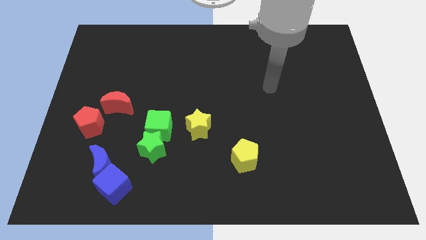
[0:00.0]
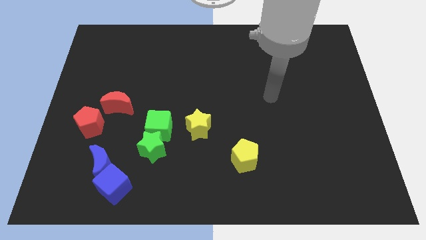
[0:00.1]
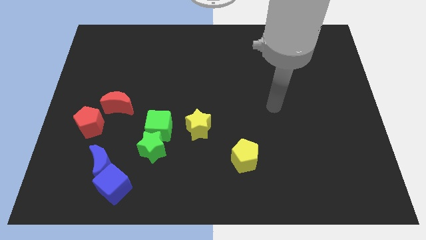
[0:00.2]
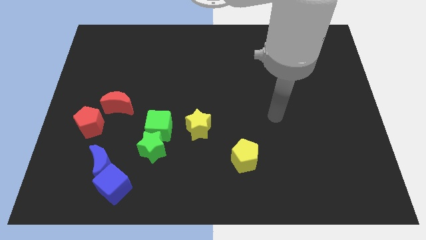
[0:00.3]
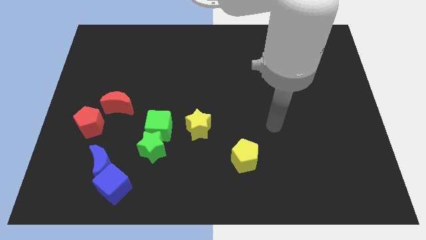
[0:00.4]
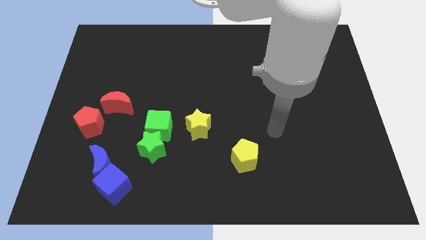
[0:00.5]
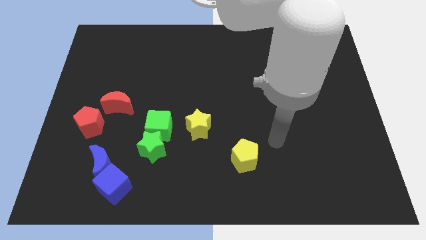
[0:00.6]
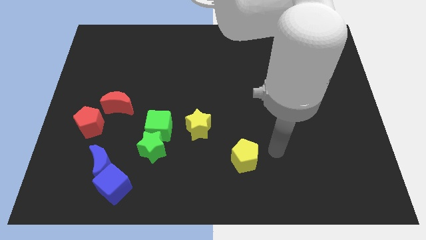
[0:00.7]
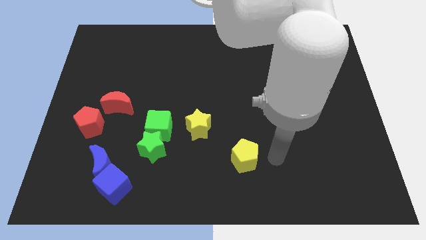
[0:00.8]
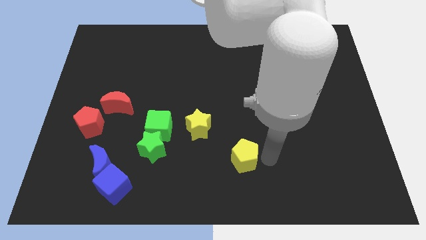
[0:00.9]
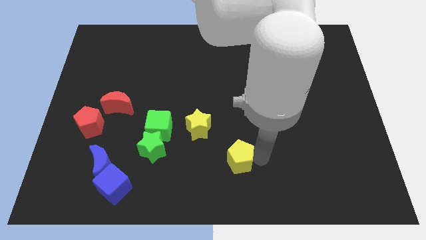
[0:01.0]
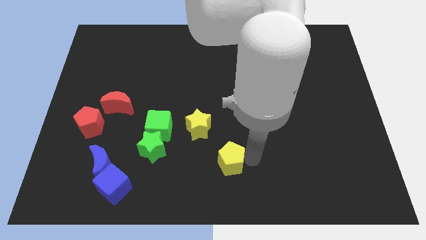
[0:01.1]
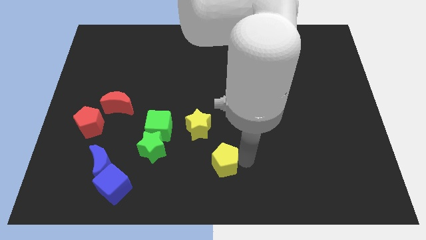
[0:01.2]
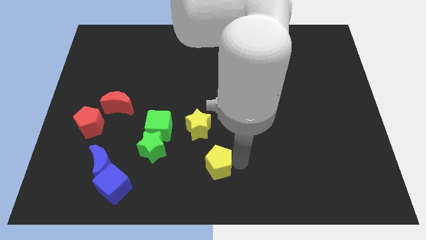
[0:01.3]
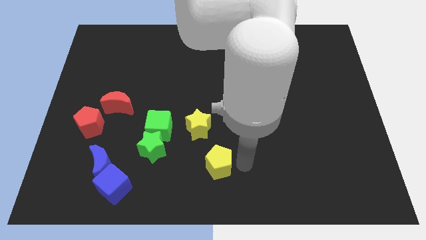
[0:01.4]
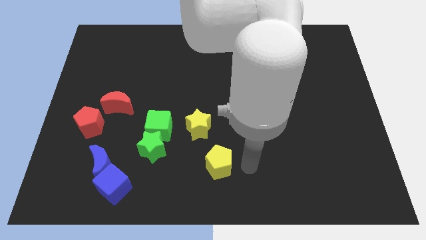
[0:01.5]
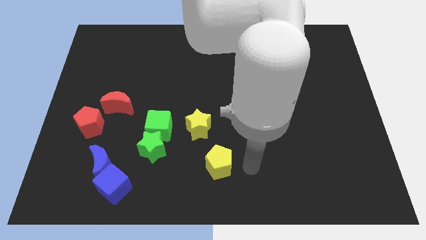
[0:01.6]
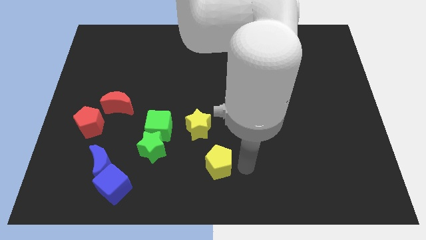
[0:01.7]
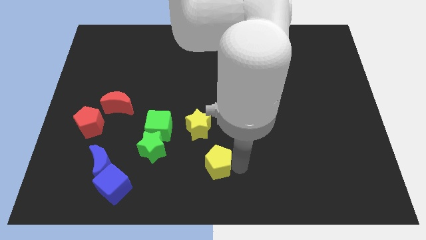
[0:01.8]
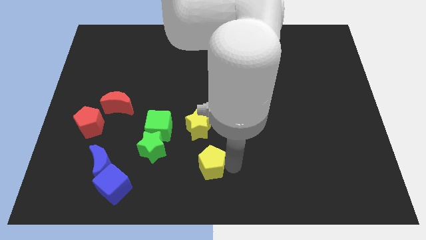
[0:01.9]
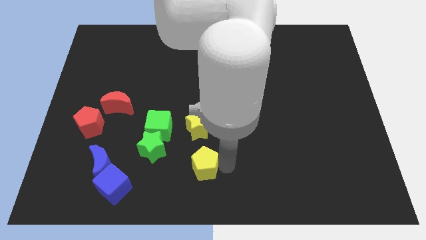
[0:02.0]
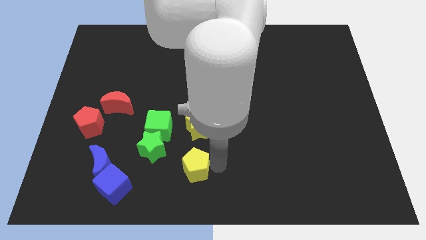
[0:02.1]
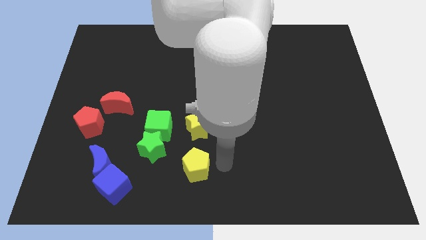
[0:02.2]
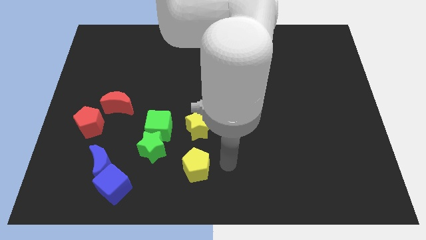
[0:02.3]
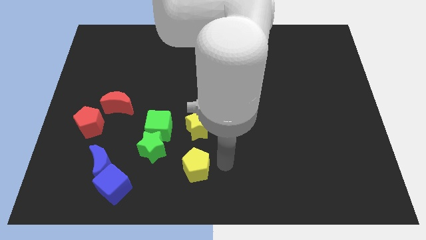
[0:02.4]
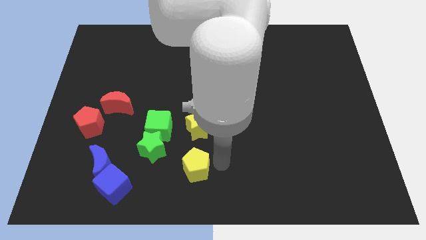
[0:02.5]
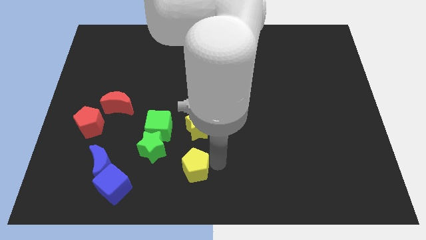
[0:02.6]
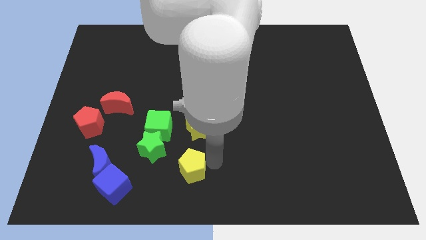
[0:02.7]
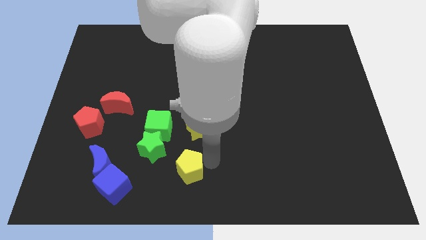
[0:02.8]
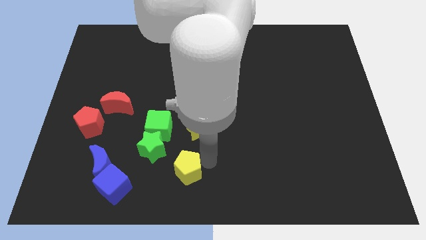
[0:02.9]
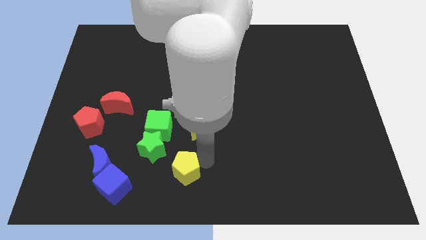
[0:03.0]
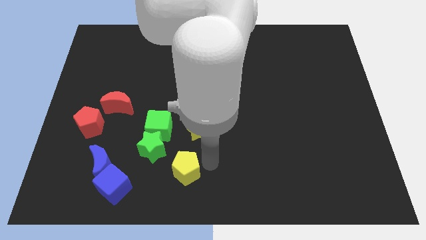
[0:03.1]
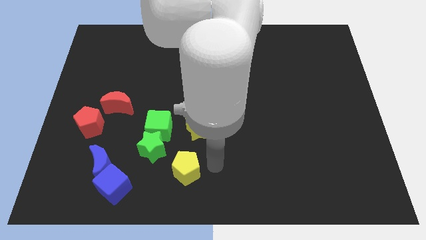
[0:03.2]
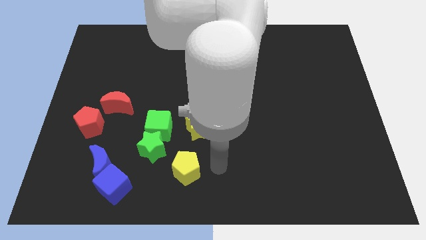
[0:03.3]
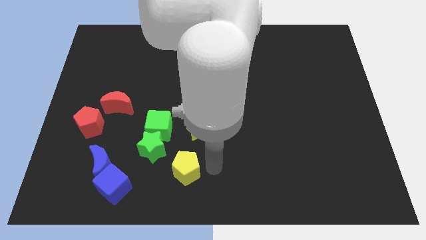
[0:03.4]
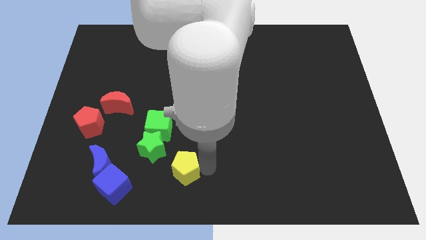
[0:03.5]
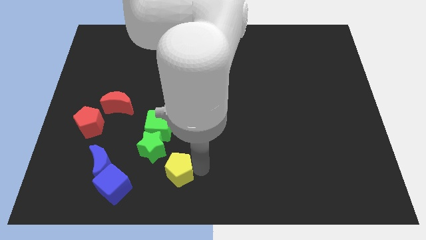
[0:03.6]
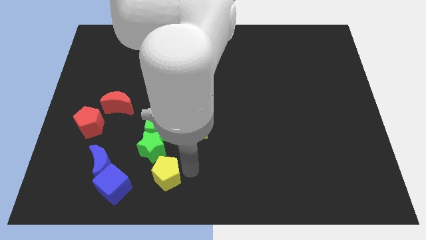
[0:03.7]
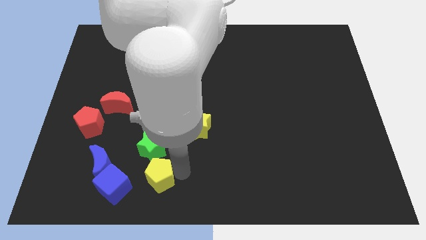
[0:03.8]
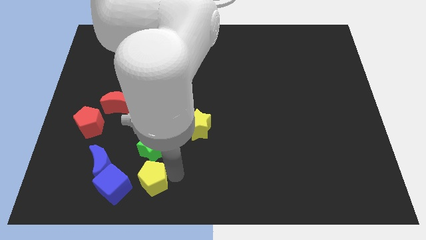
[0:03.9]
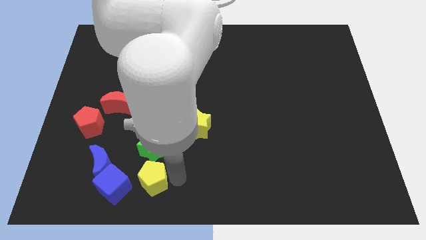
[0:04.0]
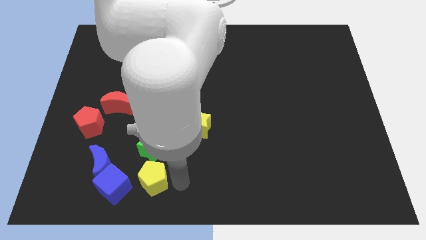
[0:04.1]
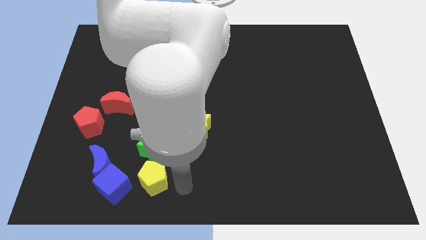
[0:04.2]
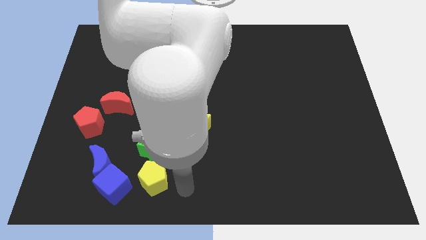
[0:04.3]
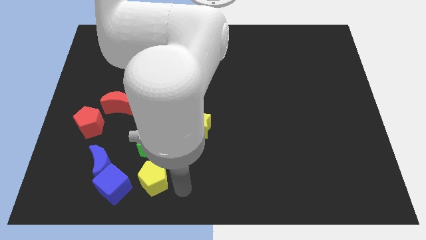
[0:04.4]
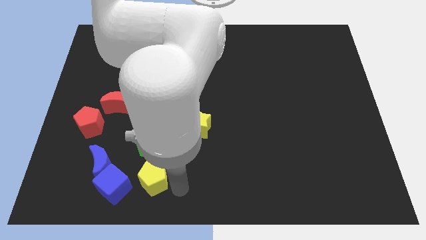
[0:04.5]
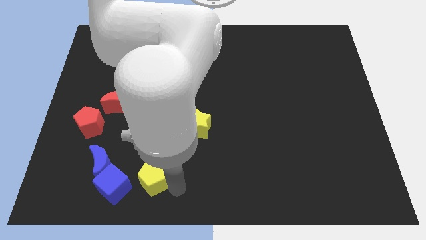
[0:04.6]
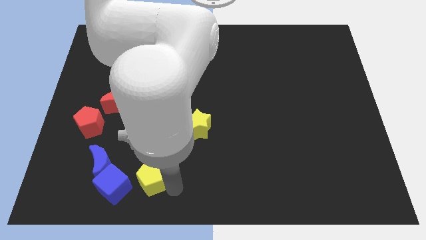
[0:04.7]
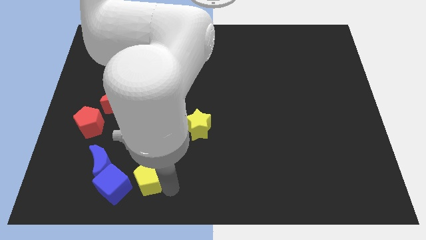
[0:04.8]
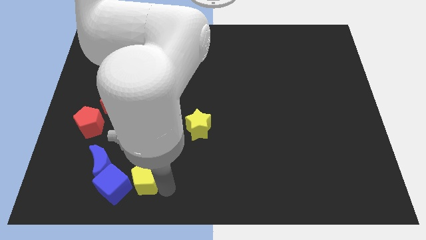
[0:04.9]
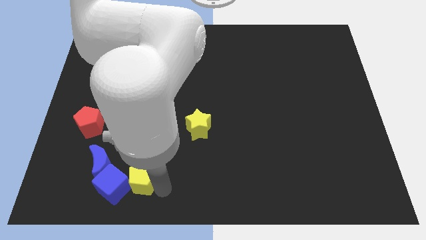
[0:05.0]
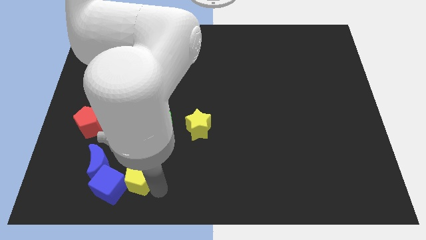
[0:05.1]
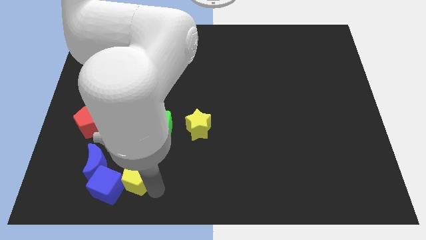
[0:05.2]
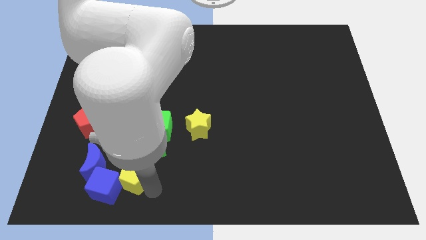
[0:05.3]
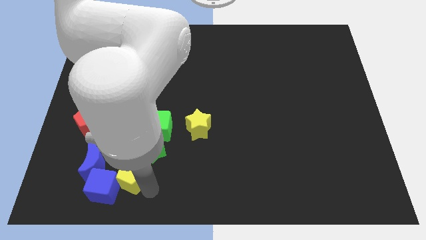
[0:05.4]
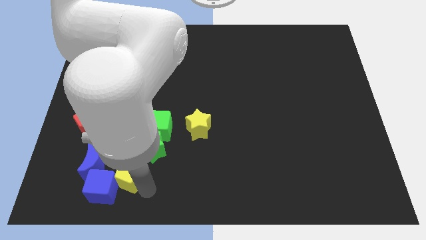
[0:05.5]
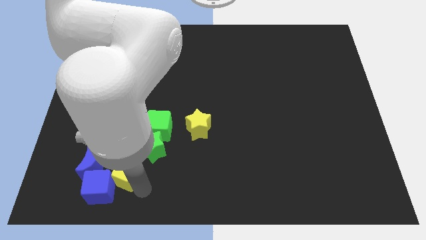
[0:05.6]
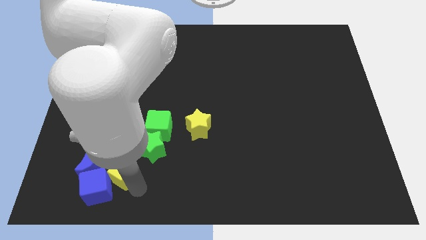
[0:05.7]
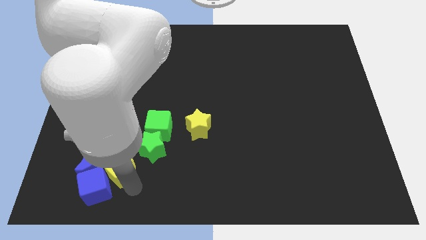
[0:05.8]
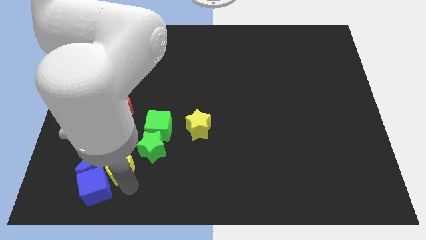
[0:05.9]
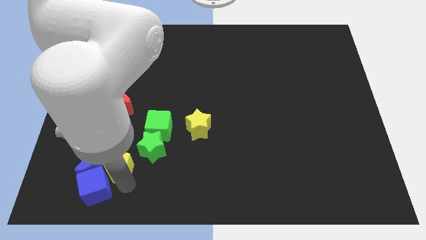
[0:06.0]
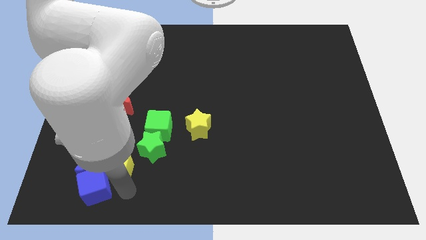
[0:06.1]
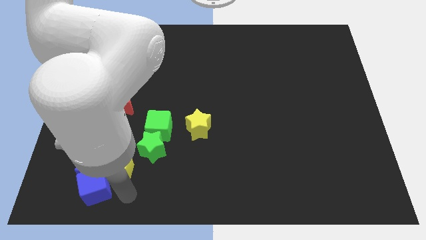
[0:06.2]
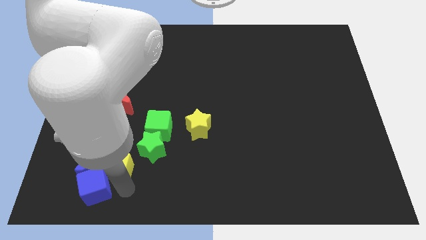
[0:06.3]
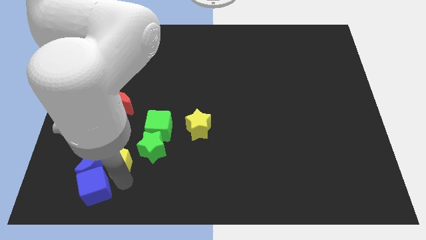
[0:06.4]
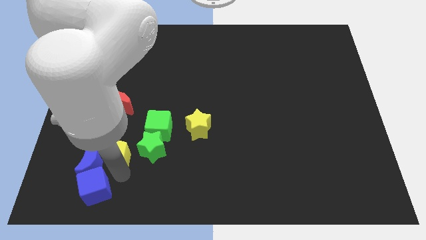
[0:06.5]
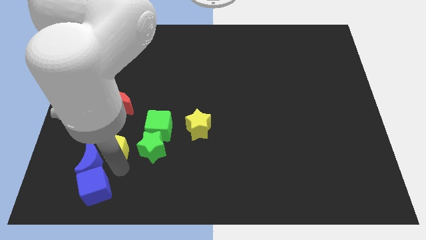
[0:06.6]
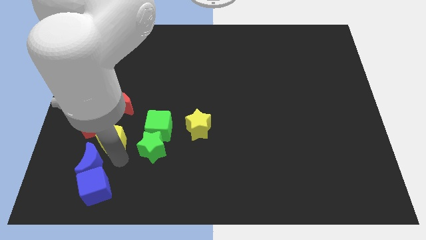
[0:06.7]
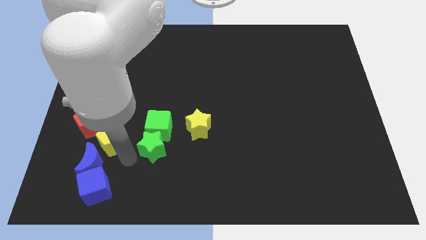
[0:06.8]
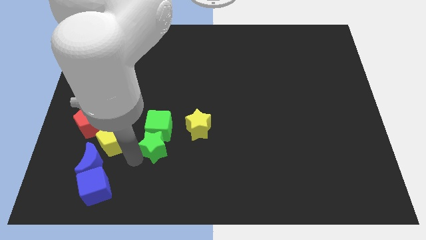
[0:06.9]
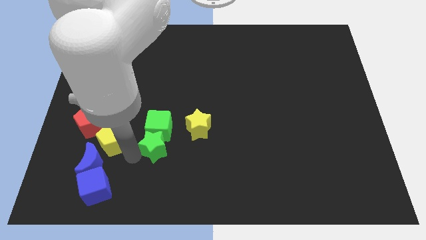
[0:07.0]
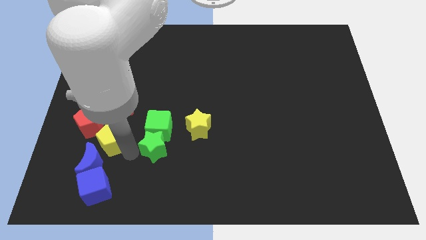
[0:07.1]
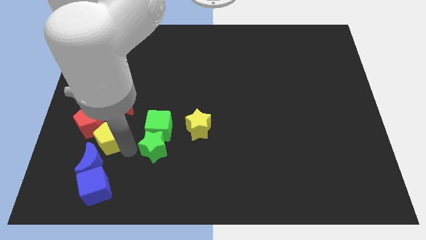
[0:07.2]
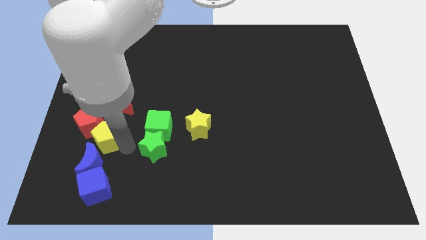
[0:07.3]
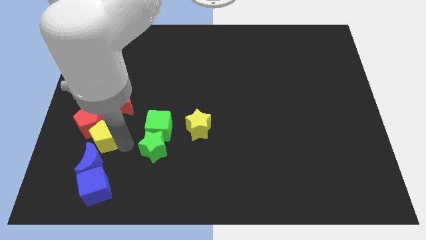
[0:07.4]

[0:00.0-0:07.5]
slide the yellow pentagon towards the red pentagon
